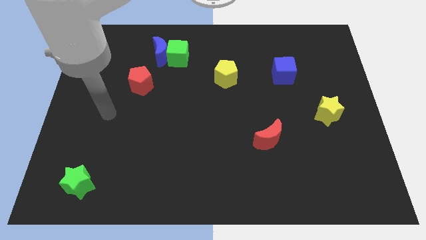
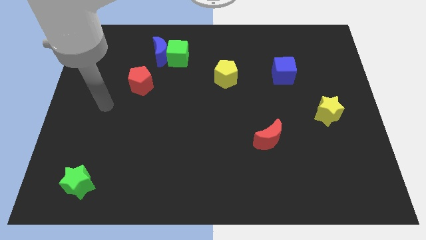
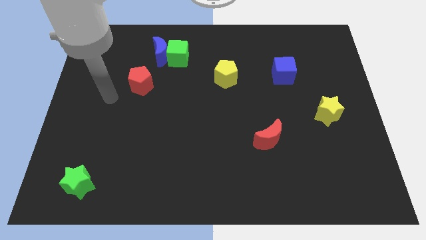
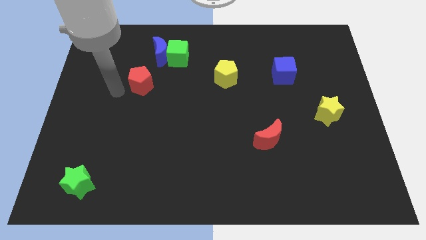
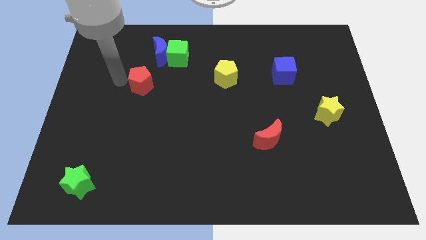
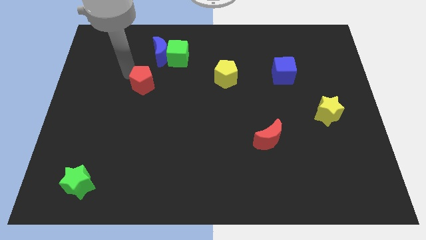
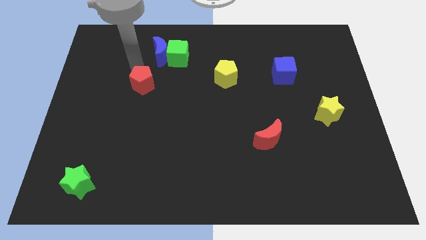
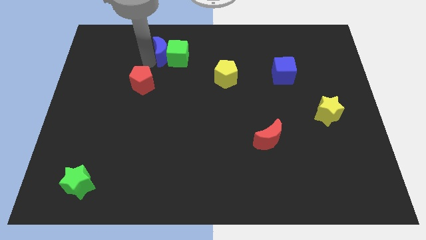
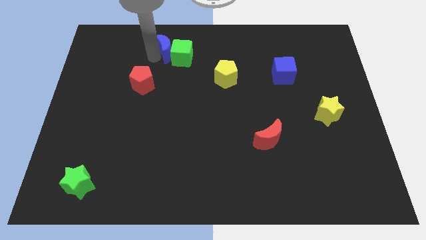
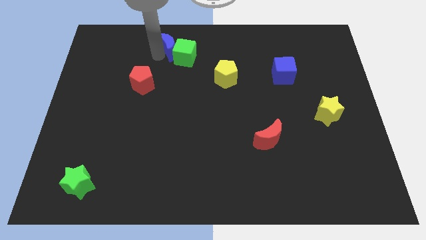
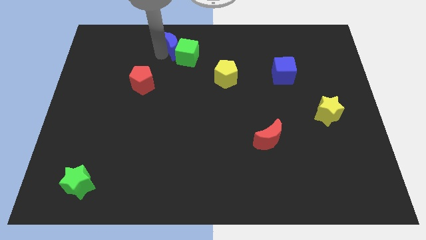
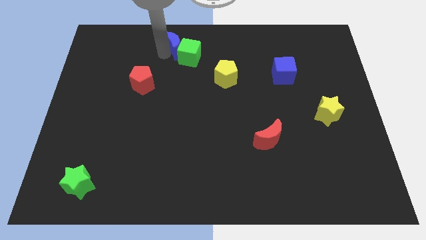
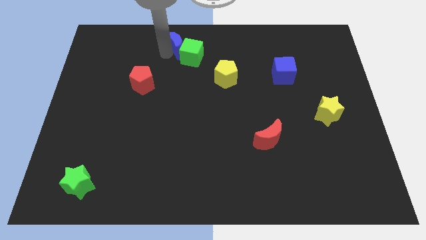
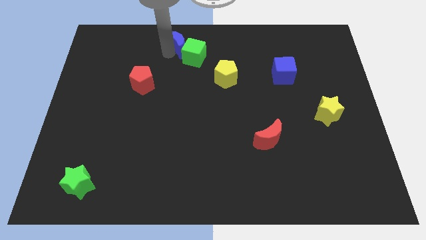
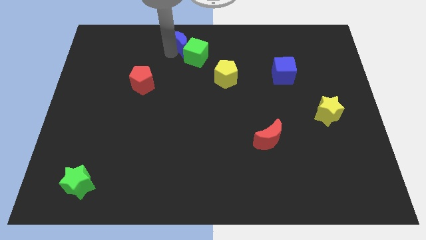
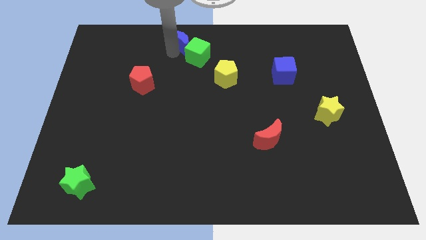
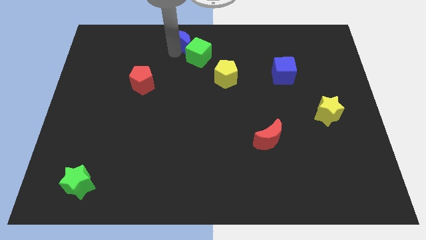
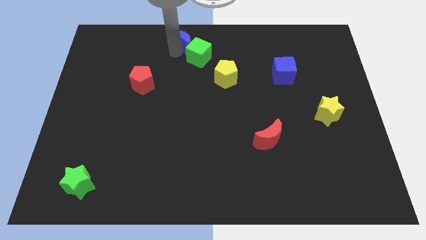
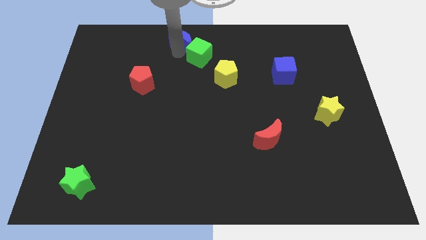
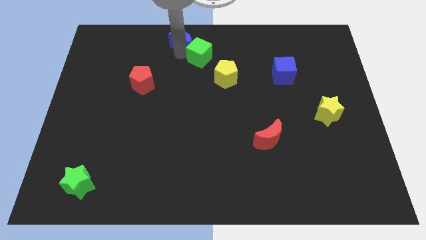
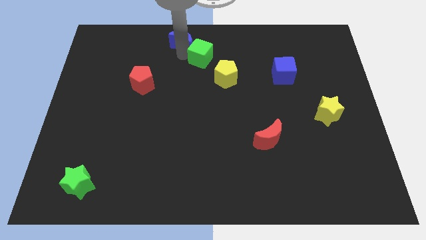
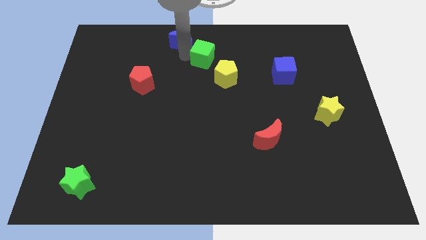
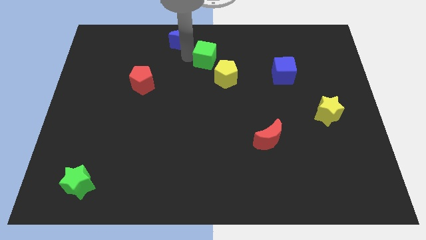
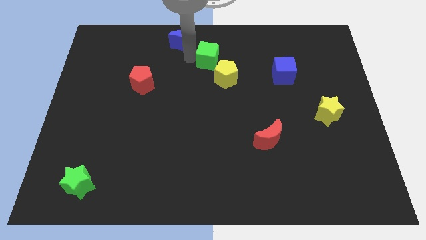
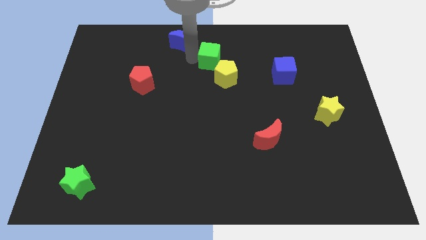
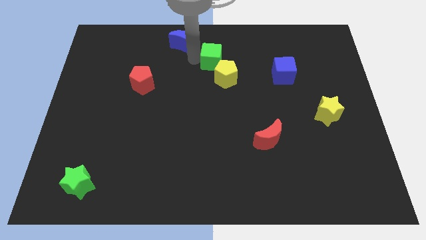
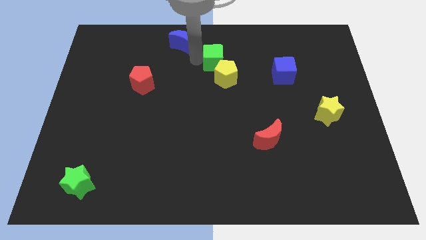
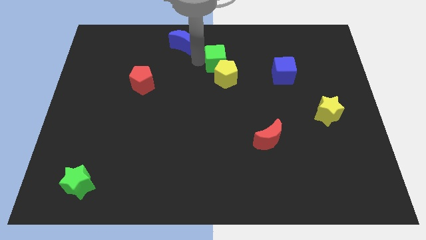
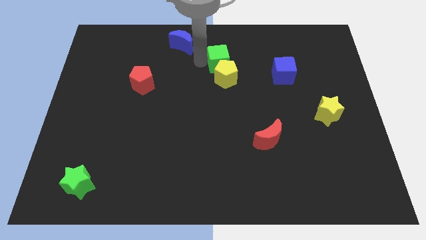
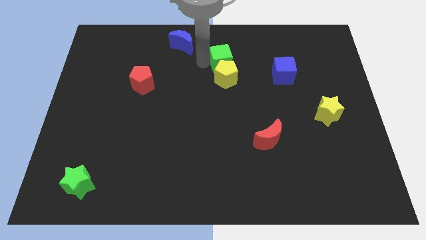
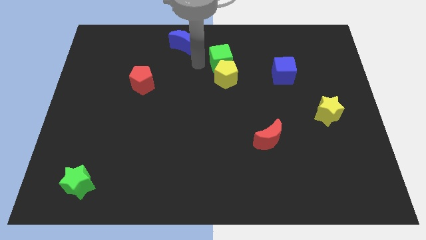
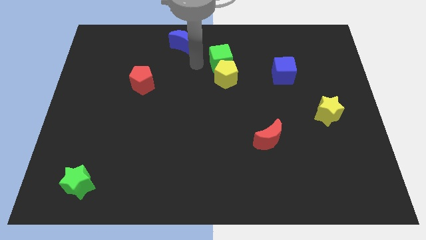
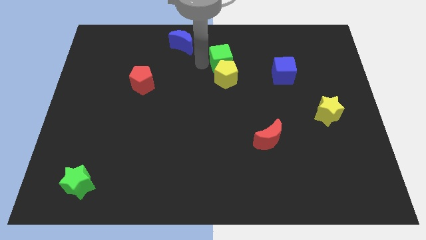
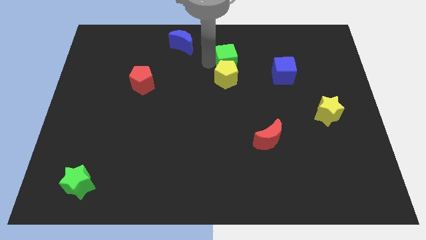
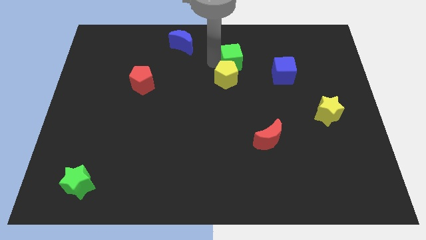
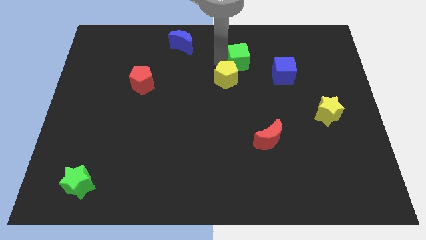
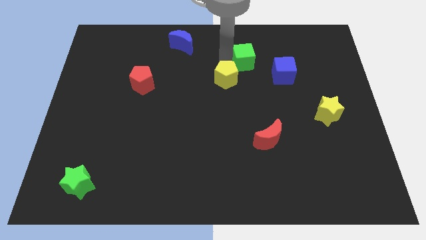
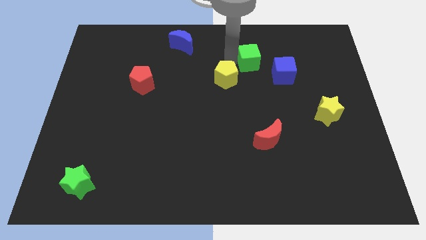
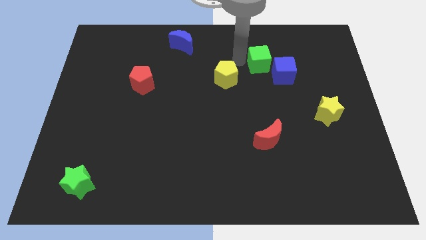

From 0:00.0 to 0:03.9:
push the green cube to the right

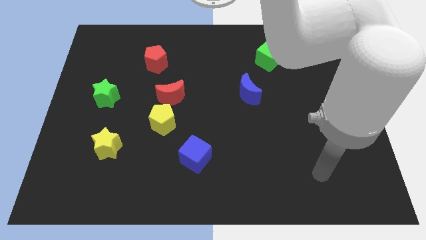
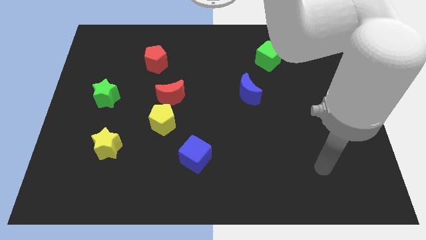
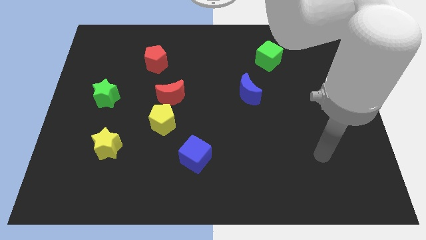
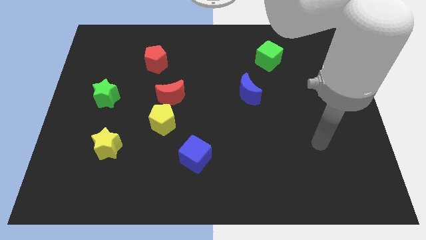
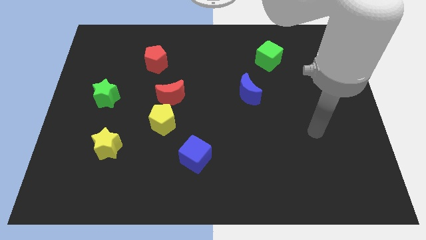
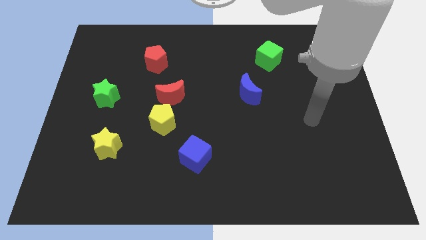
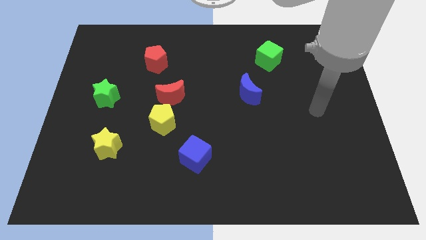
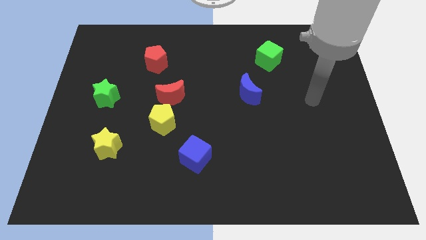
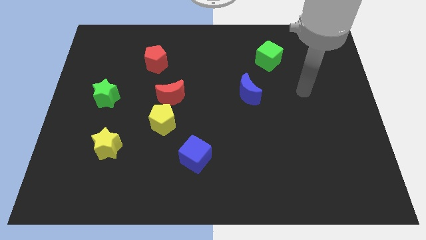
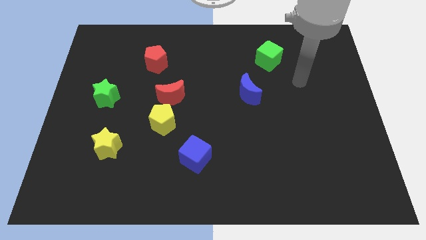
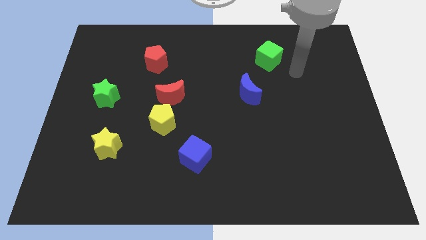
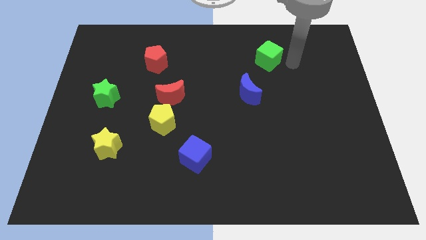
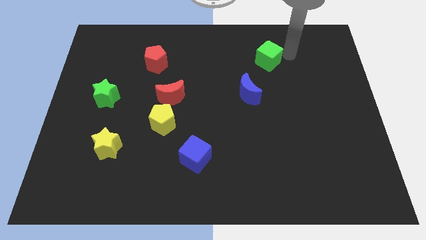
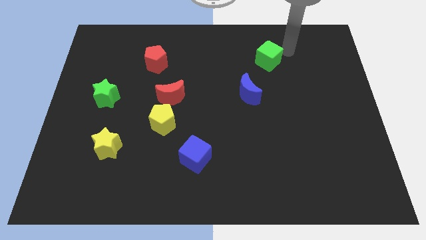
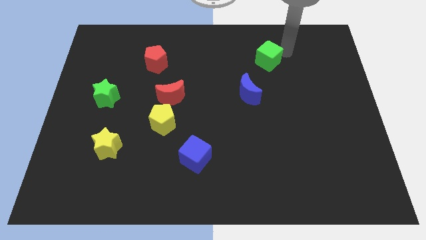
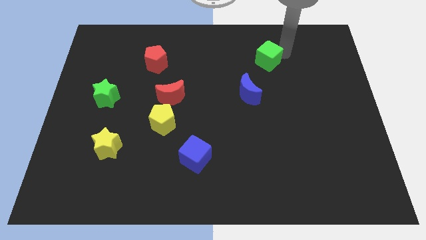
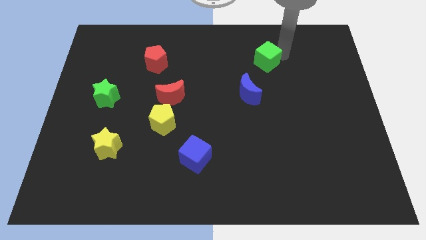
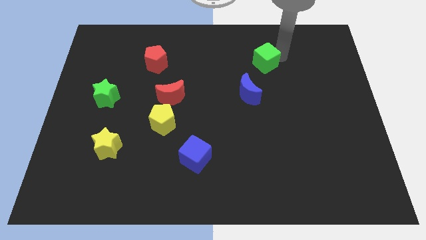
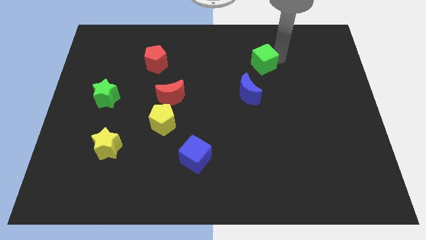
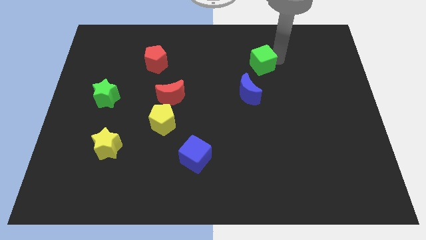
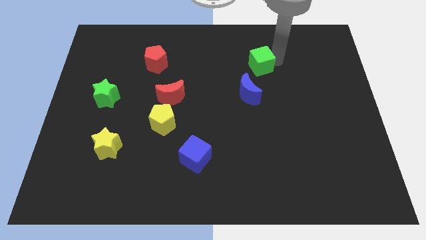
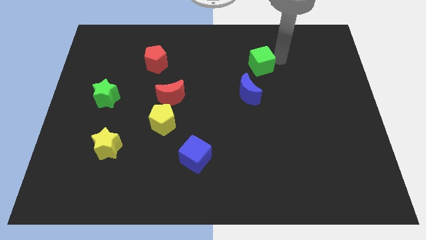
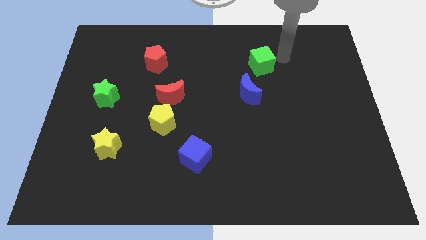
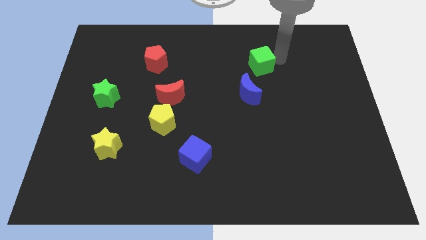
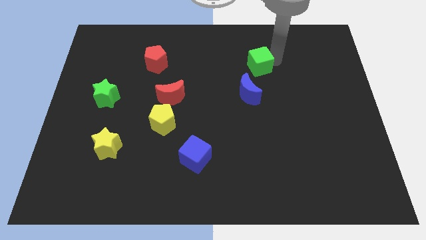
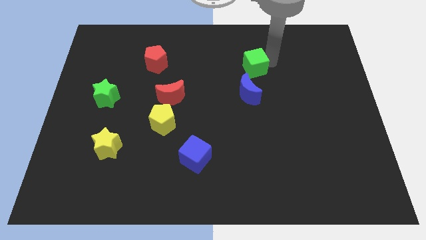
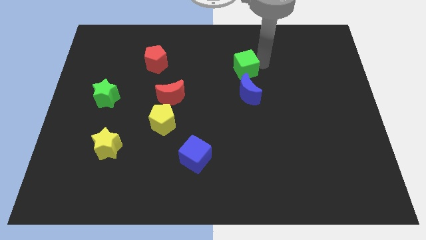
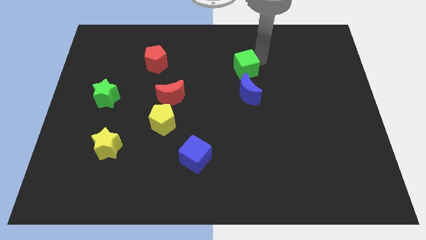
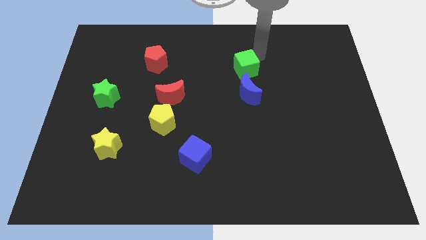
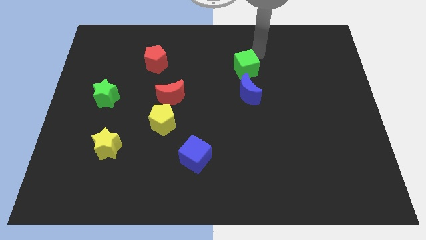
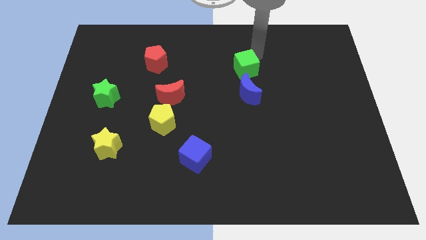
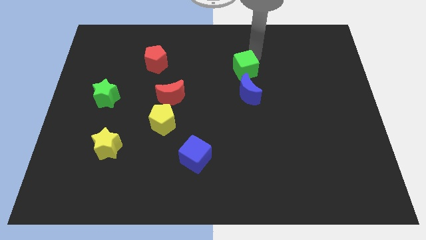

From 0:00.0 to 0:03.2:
slide the green cube somewhat diagonally downwards and to the left

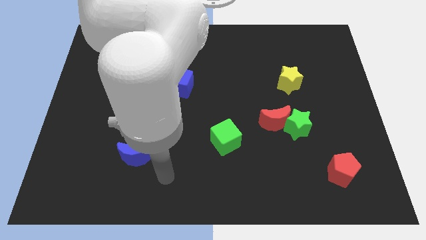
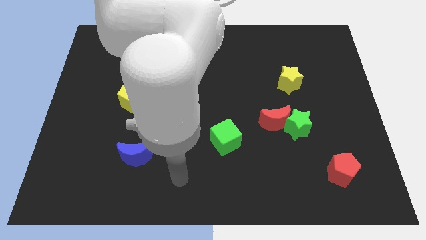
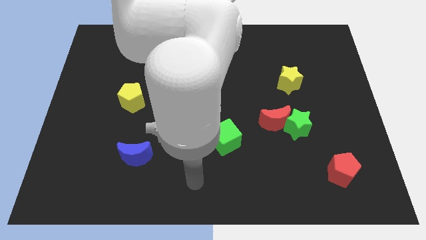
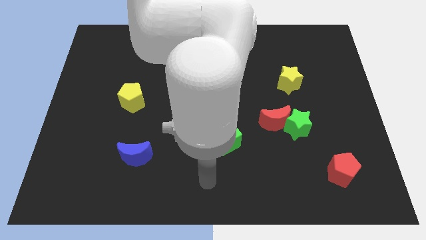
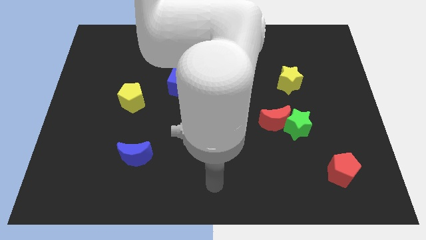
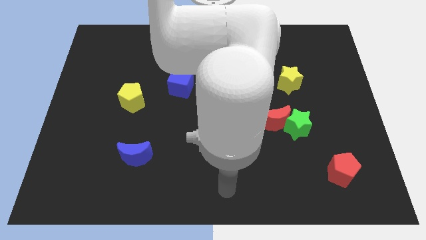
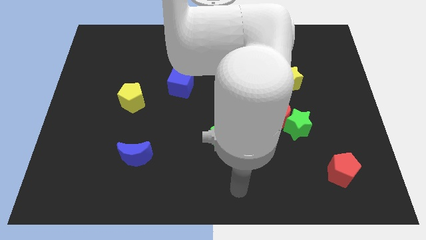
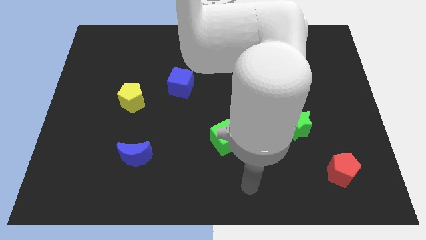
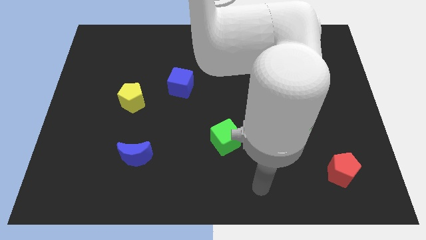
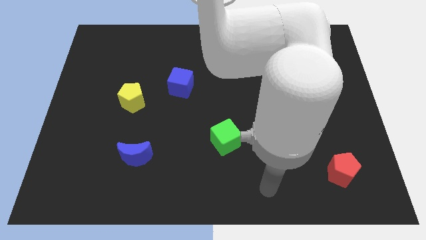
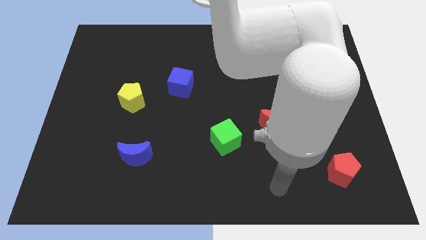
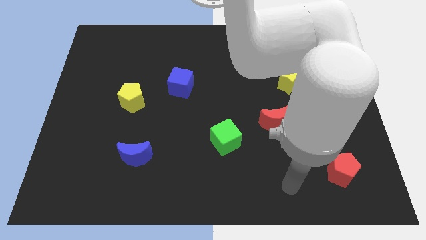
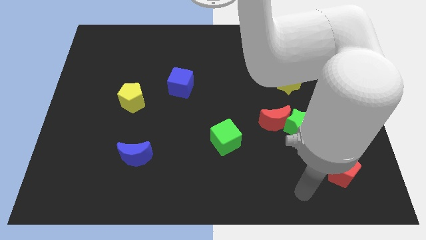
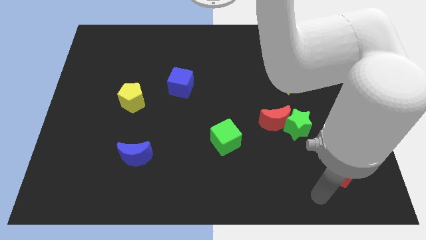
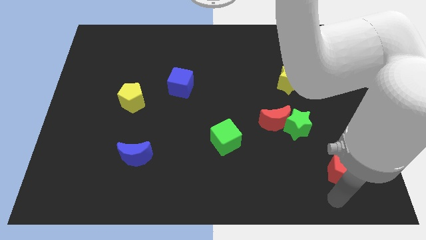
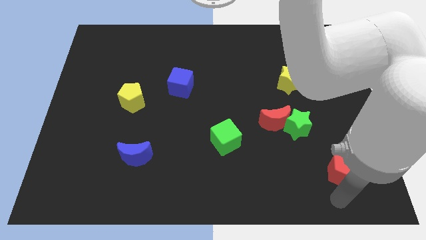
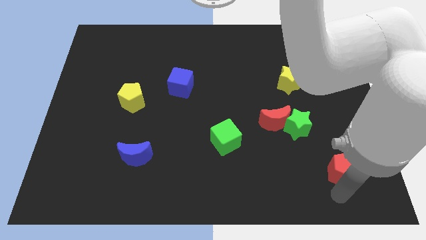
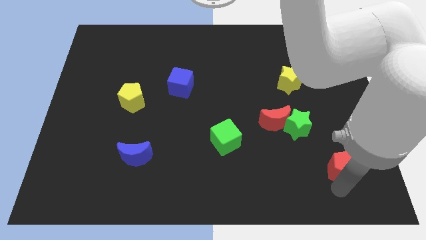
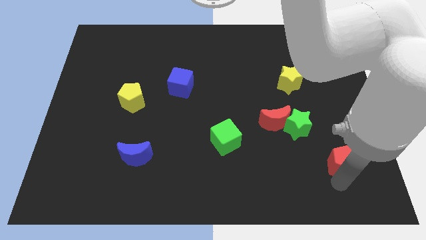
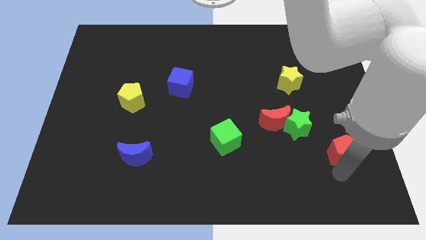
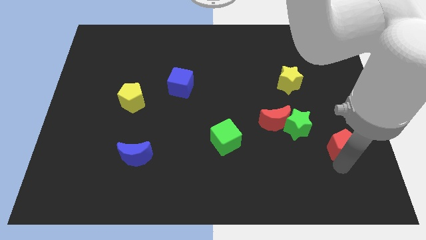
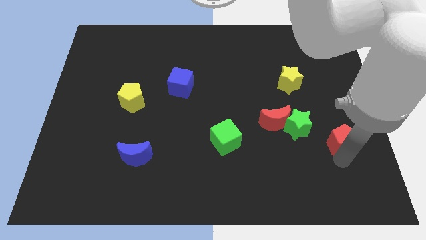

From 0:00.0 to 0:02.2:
slide the red pentagon upwards a bit
